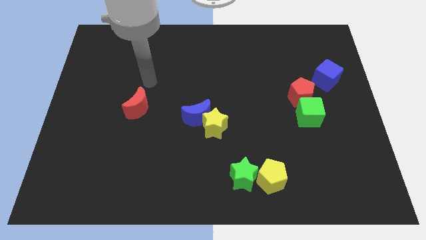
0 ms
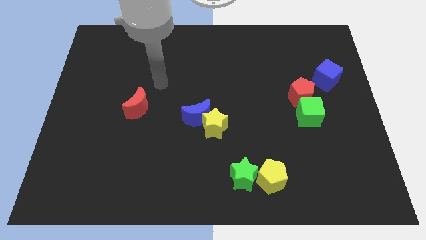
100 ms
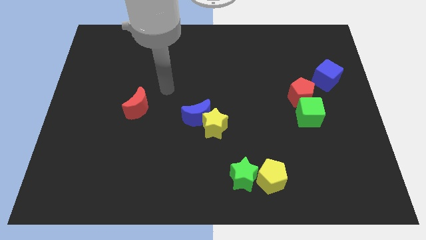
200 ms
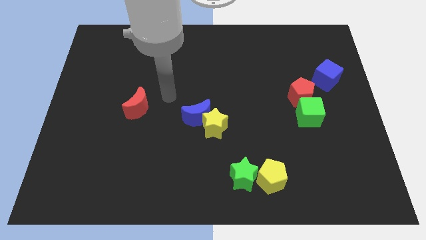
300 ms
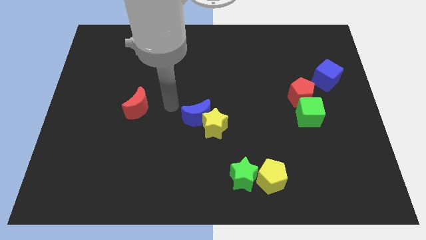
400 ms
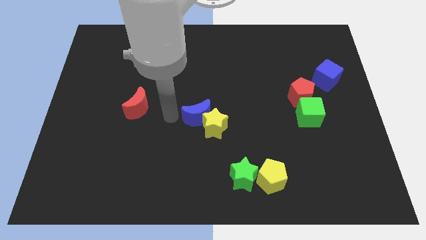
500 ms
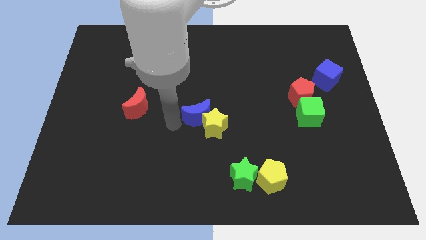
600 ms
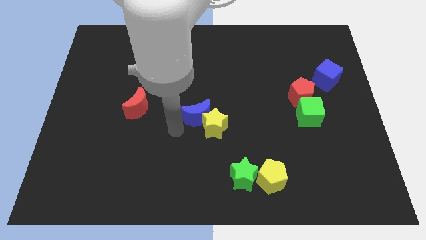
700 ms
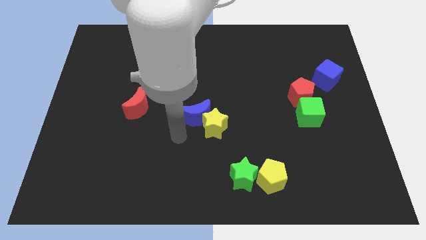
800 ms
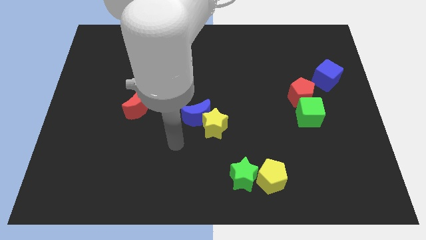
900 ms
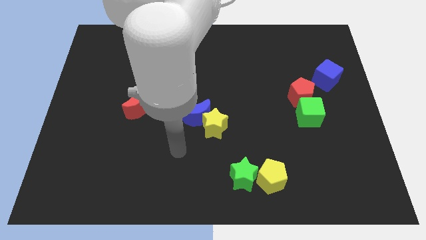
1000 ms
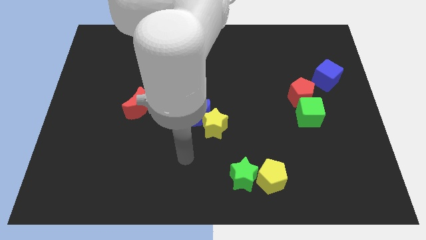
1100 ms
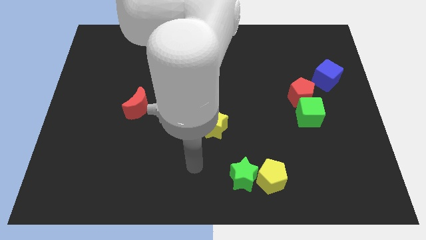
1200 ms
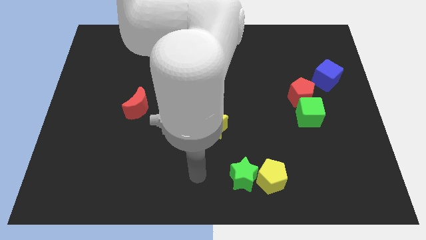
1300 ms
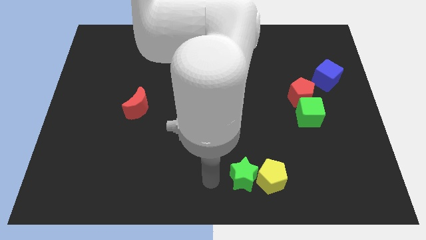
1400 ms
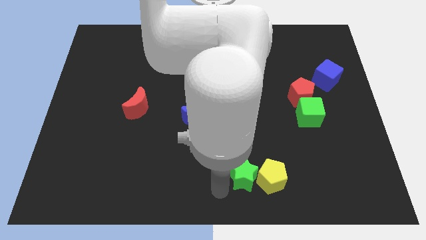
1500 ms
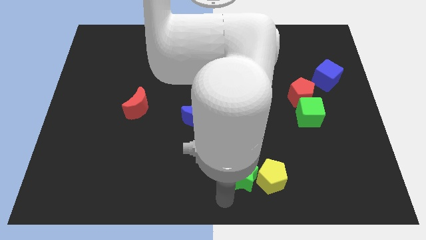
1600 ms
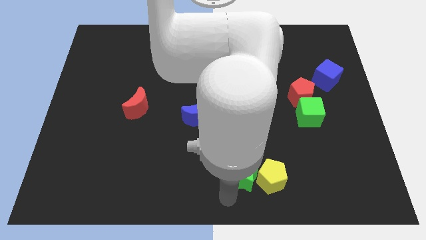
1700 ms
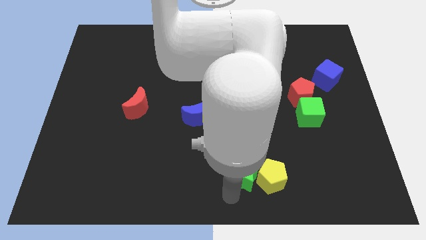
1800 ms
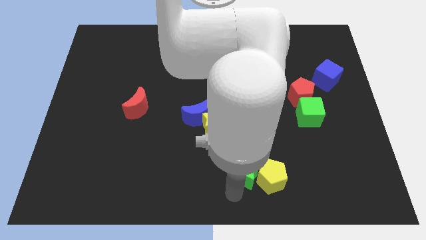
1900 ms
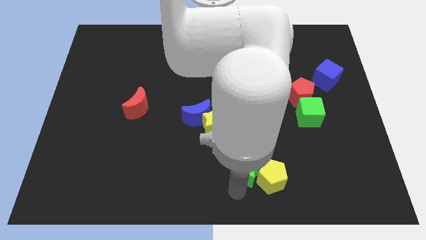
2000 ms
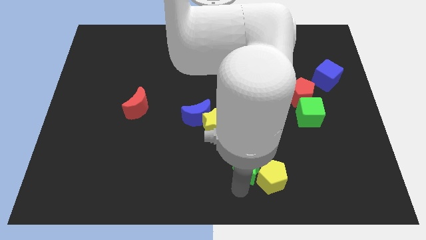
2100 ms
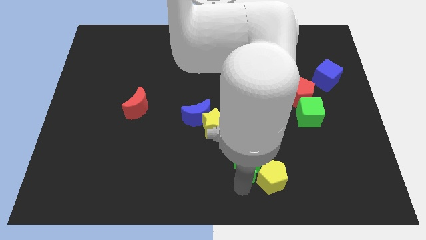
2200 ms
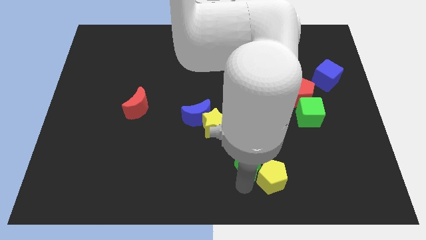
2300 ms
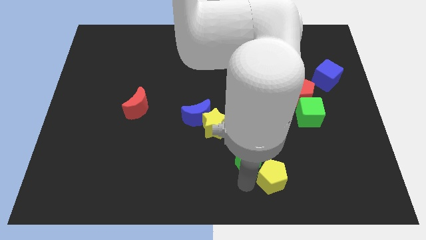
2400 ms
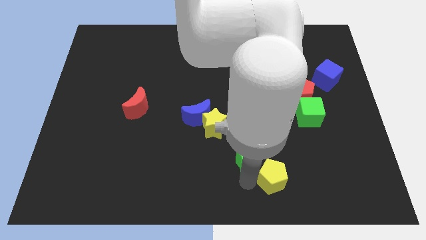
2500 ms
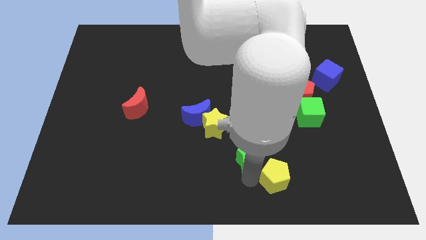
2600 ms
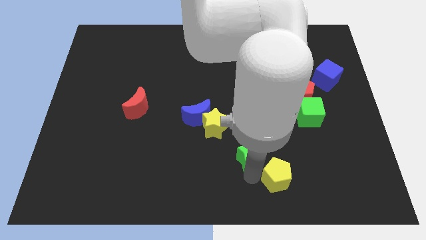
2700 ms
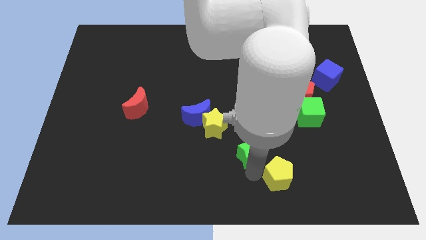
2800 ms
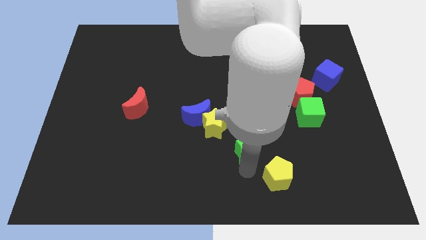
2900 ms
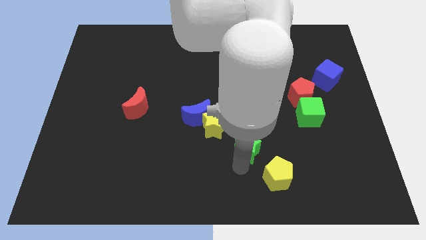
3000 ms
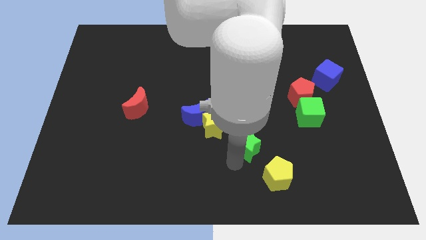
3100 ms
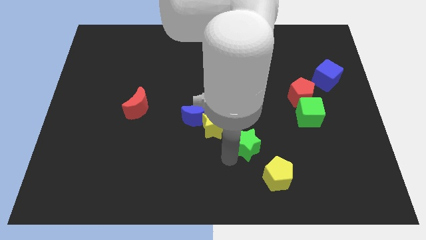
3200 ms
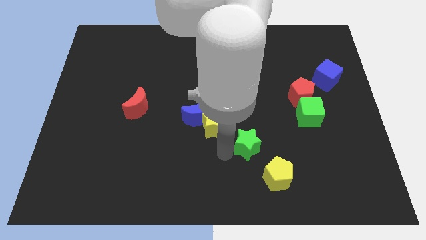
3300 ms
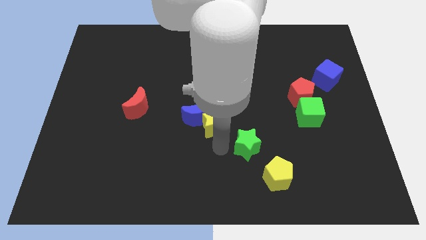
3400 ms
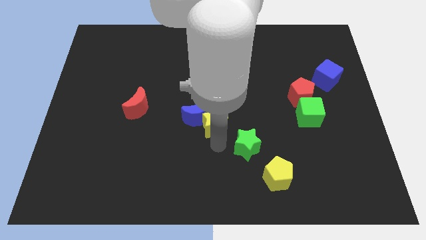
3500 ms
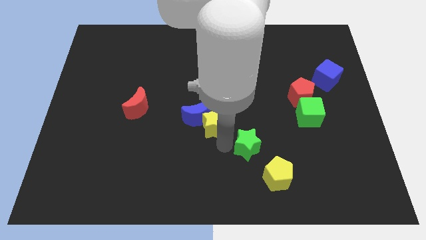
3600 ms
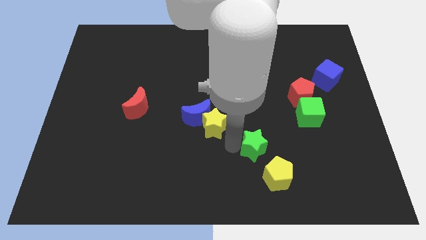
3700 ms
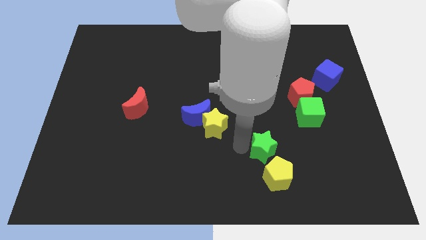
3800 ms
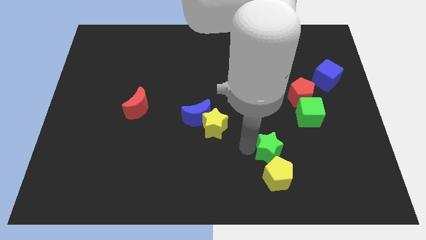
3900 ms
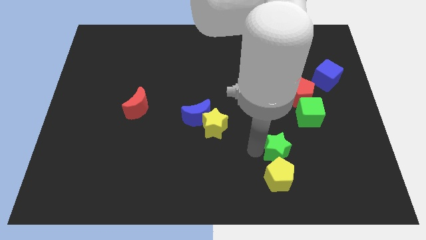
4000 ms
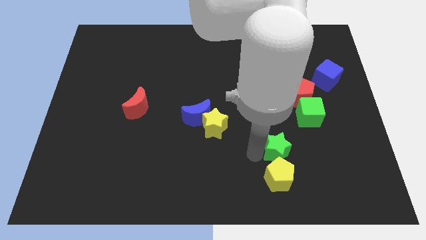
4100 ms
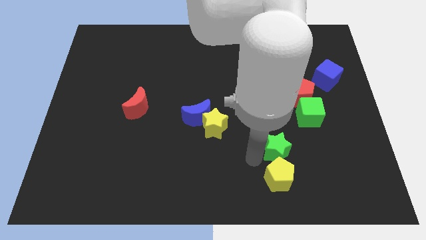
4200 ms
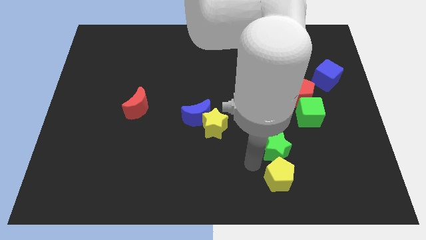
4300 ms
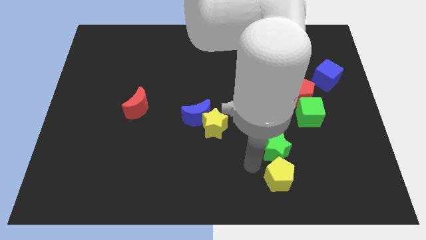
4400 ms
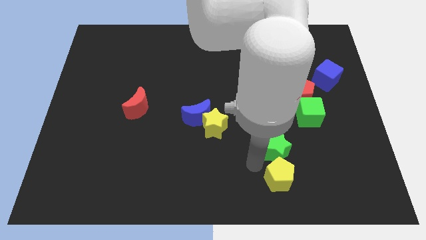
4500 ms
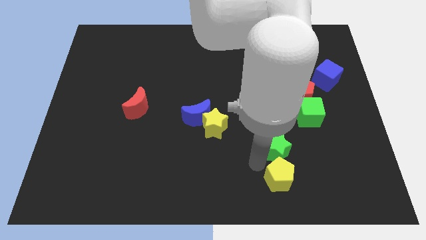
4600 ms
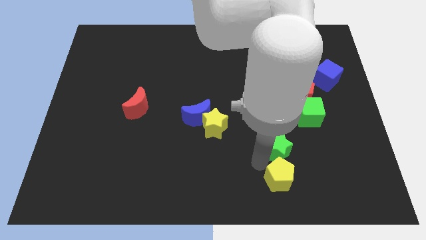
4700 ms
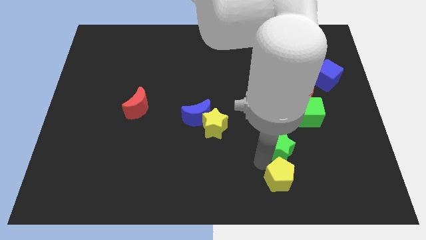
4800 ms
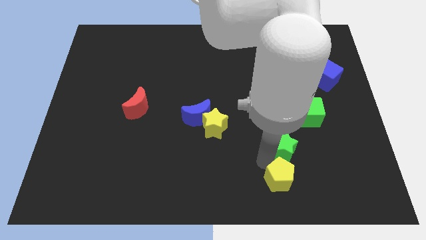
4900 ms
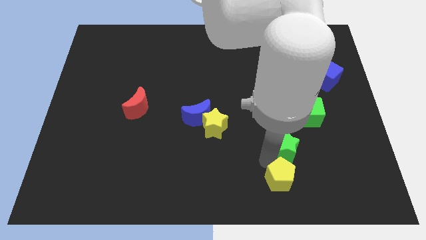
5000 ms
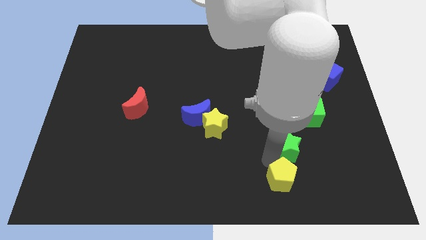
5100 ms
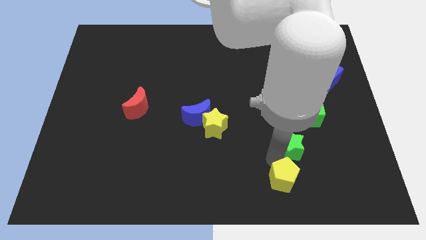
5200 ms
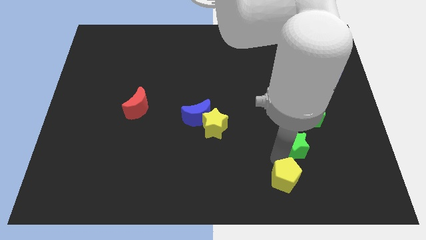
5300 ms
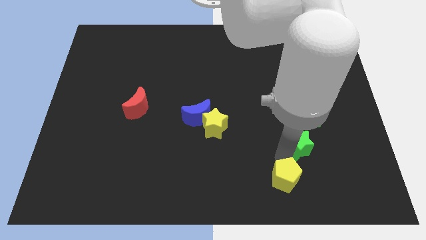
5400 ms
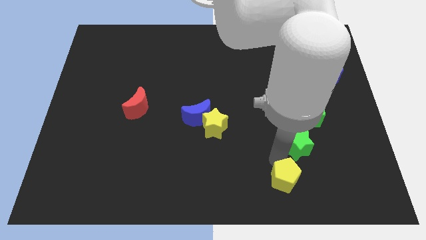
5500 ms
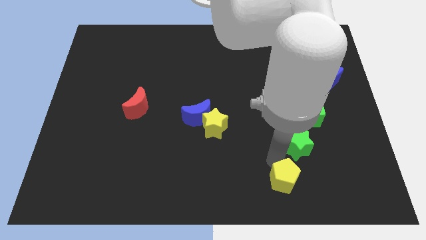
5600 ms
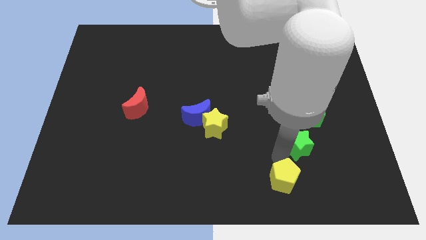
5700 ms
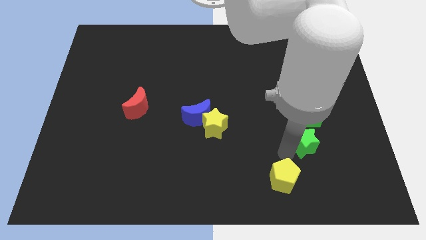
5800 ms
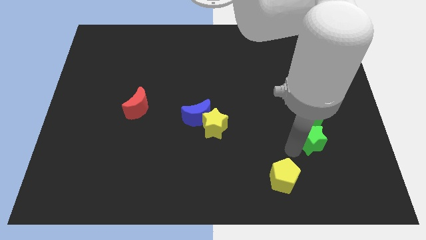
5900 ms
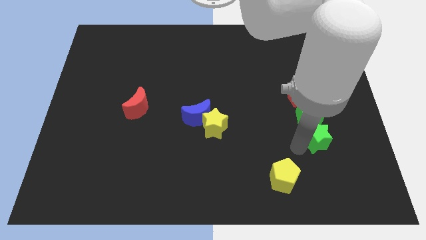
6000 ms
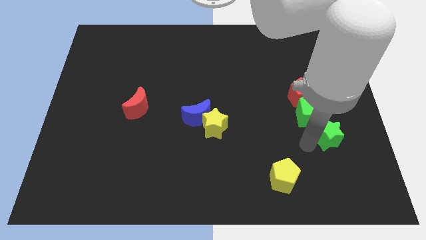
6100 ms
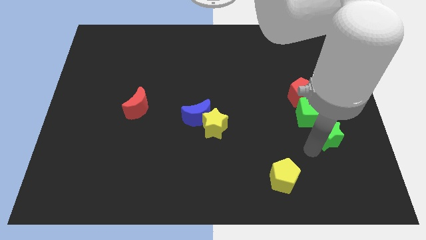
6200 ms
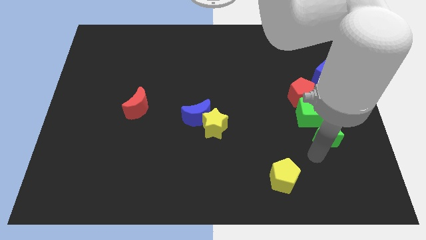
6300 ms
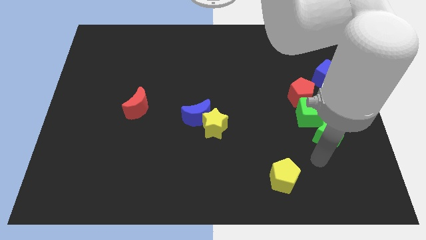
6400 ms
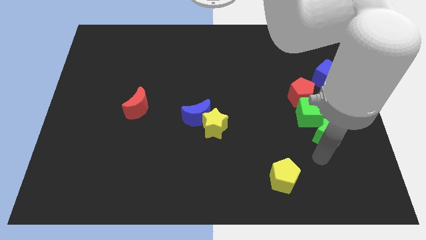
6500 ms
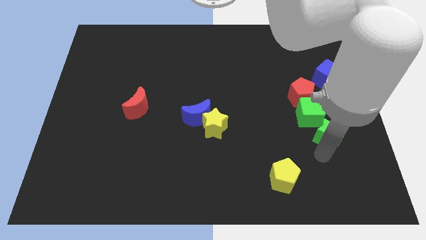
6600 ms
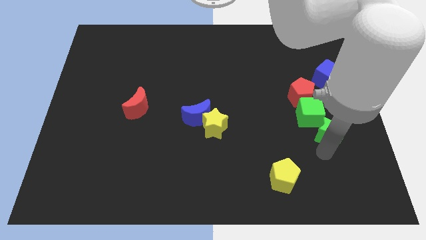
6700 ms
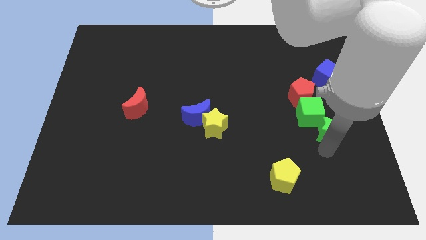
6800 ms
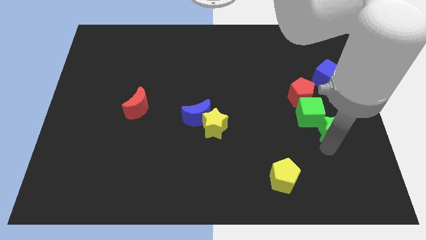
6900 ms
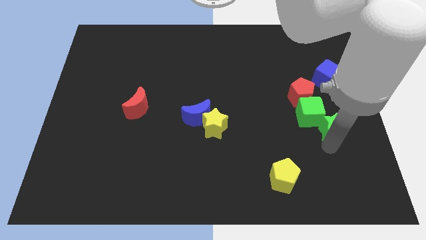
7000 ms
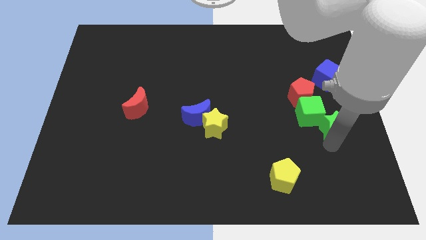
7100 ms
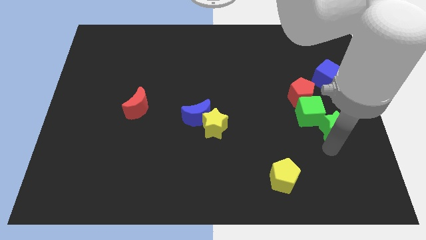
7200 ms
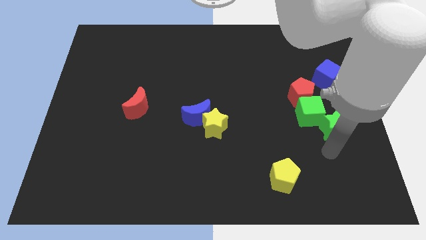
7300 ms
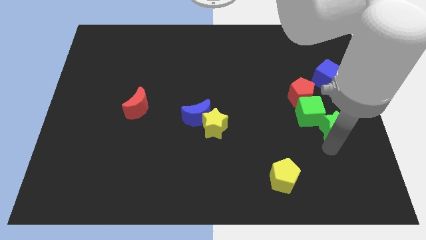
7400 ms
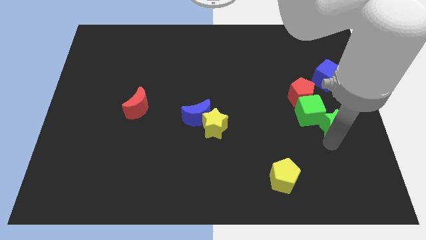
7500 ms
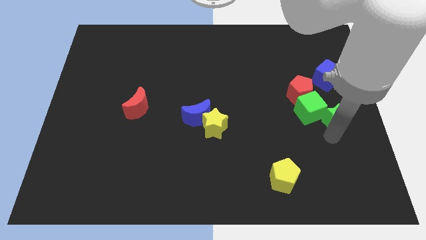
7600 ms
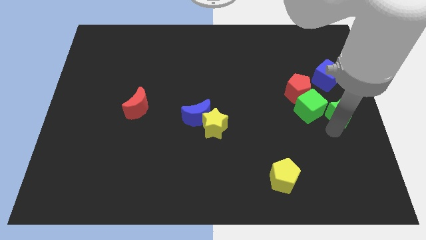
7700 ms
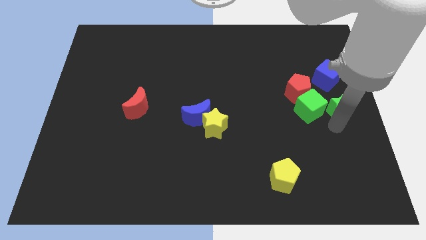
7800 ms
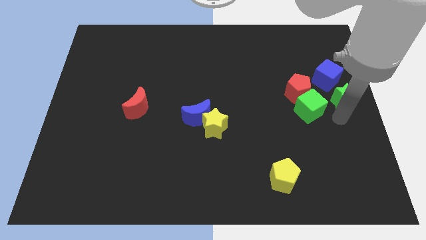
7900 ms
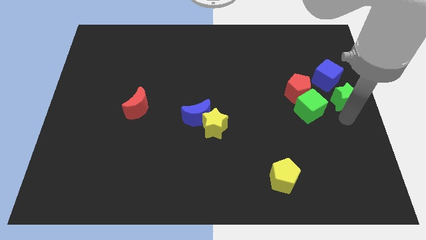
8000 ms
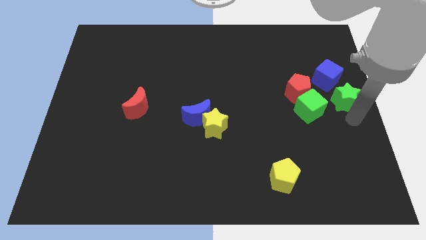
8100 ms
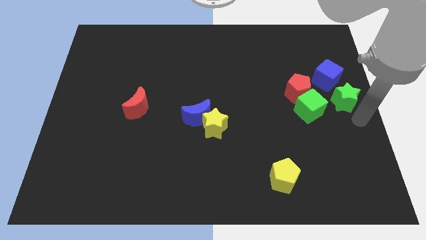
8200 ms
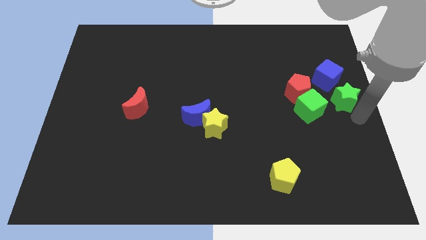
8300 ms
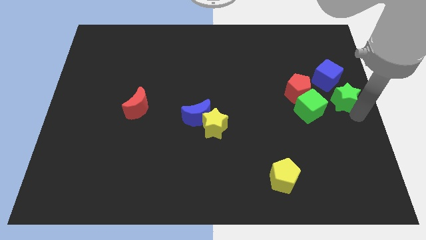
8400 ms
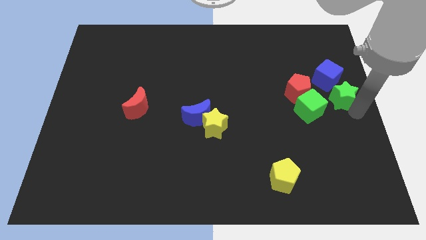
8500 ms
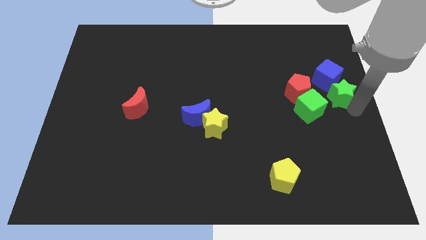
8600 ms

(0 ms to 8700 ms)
move the green star next to the blue cube
